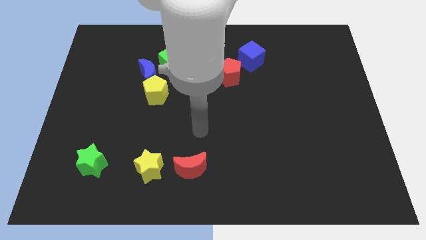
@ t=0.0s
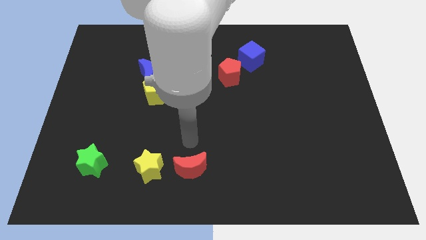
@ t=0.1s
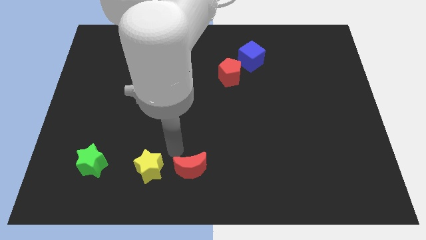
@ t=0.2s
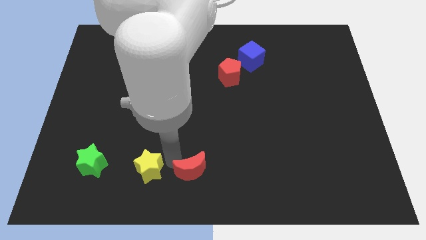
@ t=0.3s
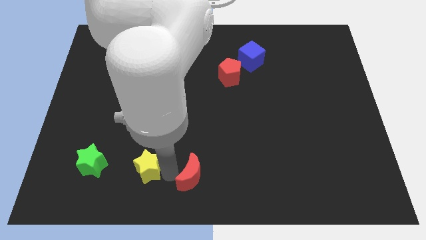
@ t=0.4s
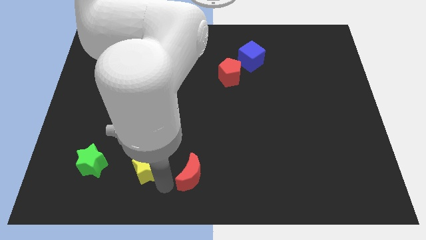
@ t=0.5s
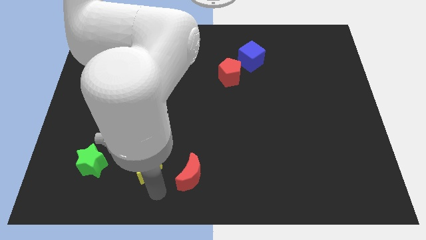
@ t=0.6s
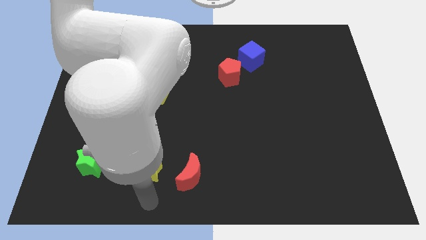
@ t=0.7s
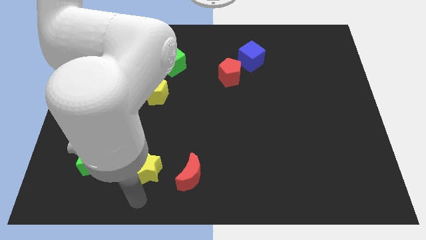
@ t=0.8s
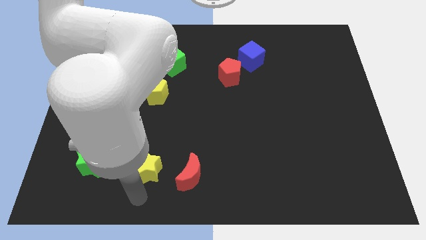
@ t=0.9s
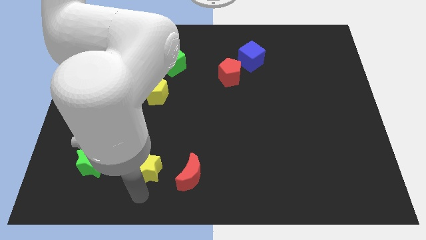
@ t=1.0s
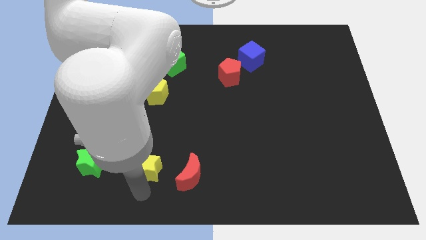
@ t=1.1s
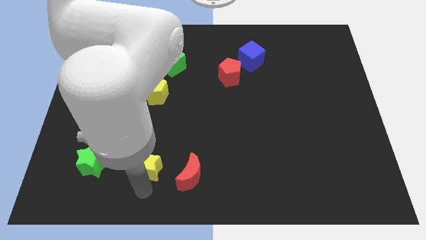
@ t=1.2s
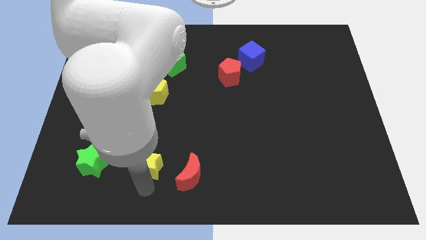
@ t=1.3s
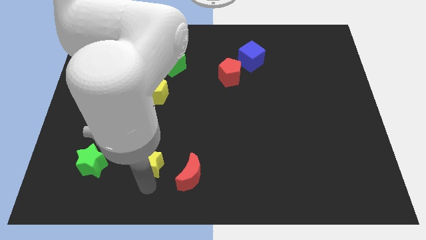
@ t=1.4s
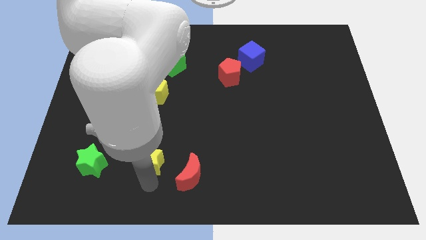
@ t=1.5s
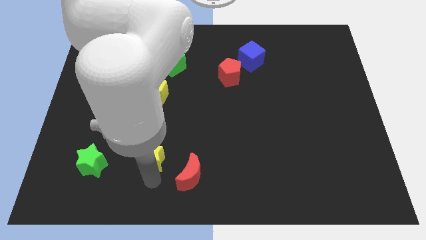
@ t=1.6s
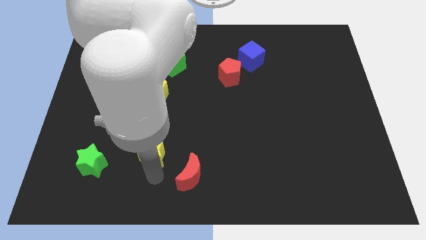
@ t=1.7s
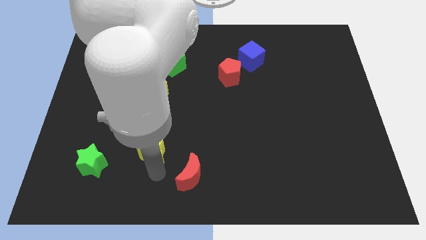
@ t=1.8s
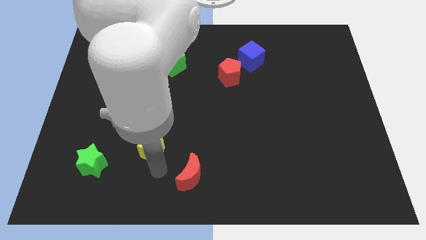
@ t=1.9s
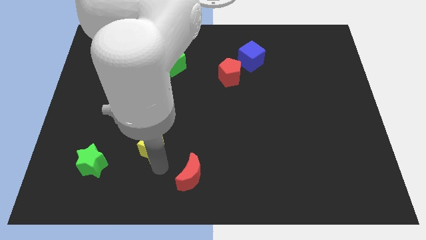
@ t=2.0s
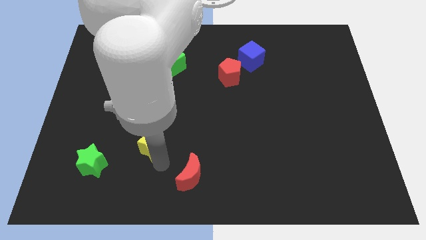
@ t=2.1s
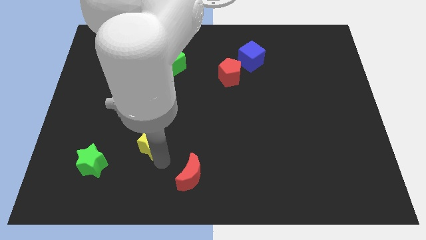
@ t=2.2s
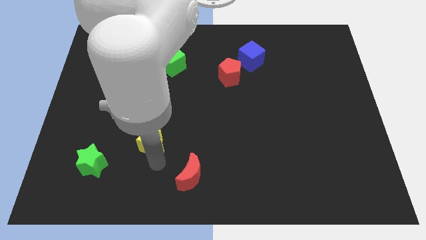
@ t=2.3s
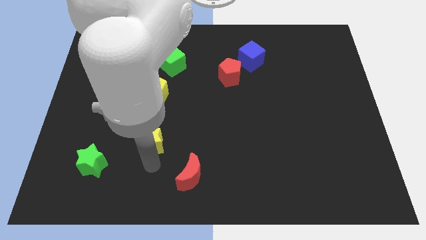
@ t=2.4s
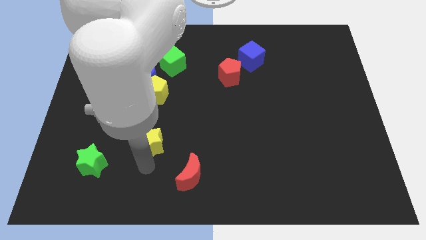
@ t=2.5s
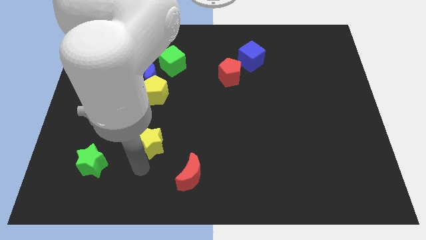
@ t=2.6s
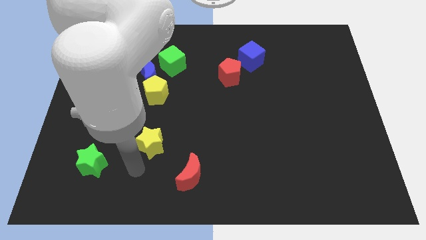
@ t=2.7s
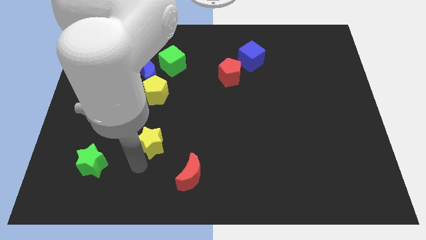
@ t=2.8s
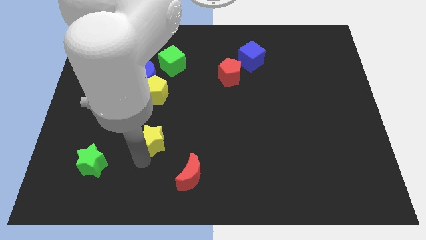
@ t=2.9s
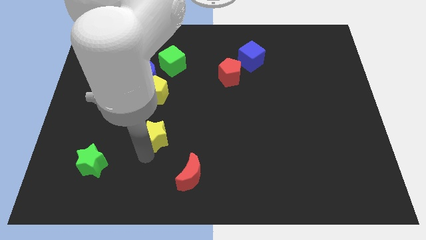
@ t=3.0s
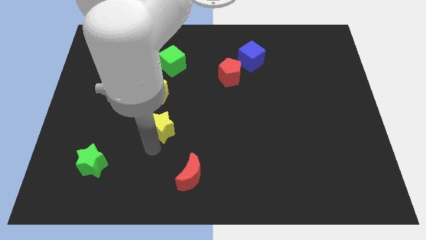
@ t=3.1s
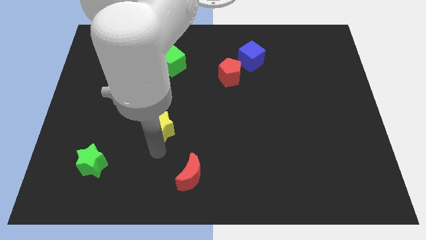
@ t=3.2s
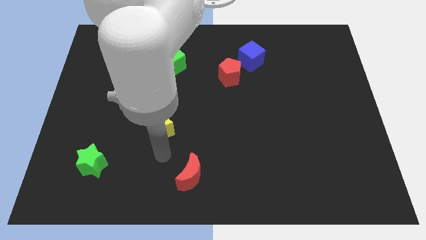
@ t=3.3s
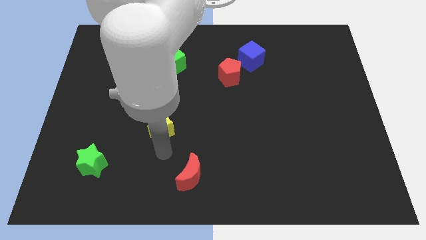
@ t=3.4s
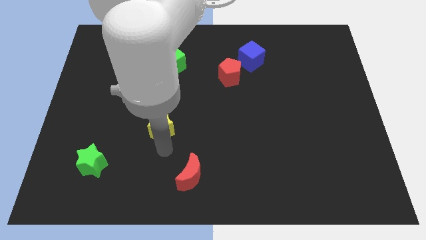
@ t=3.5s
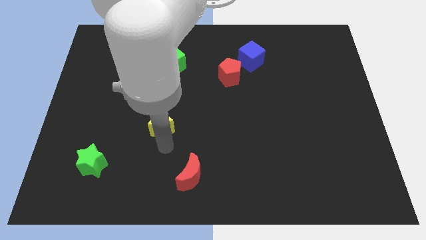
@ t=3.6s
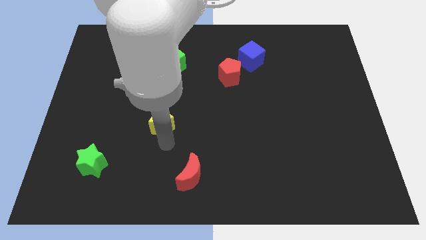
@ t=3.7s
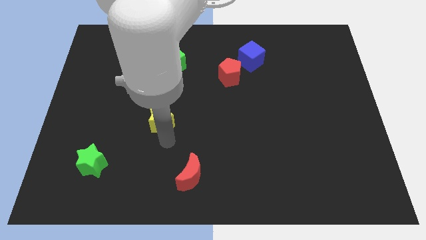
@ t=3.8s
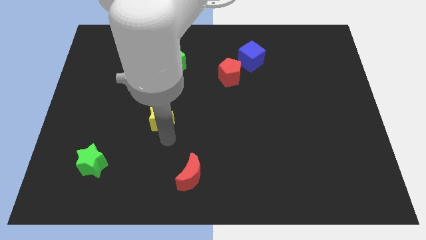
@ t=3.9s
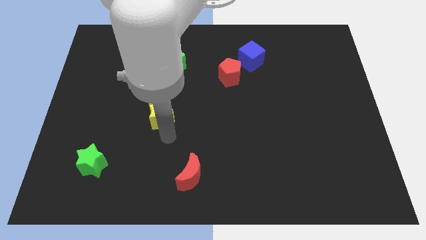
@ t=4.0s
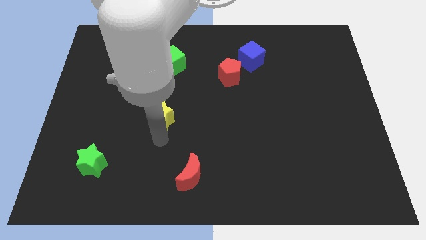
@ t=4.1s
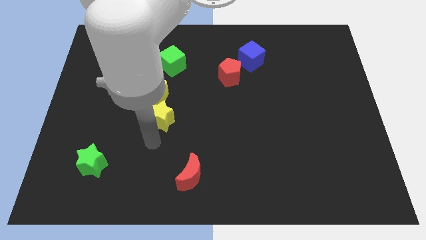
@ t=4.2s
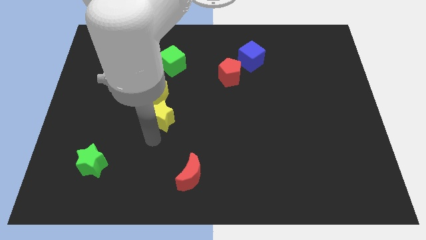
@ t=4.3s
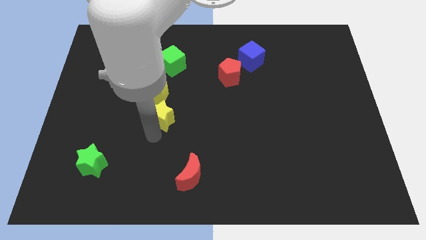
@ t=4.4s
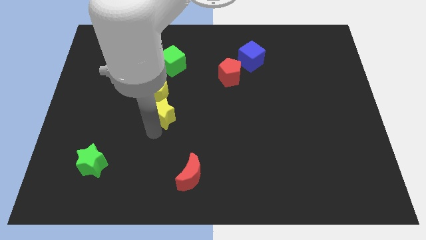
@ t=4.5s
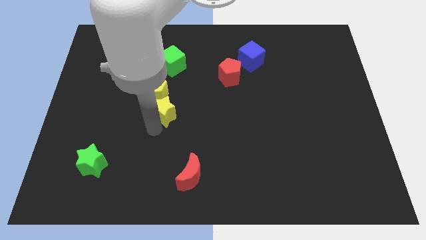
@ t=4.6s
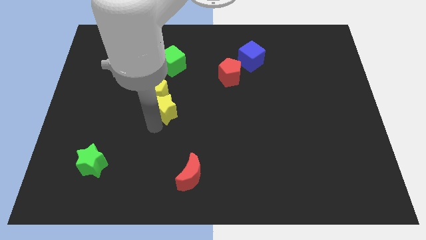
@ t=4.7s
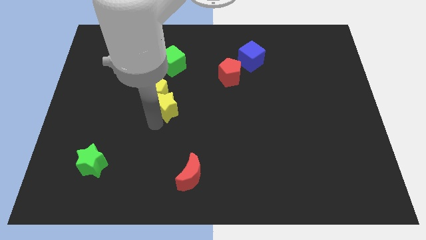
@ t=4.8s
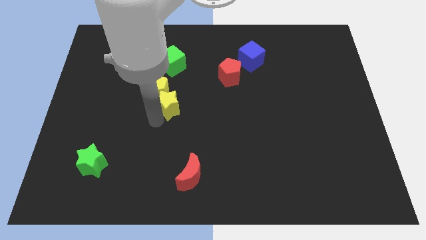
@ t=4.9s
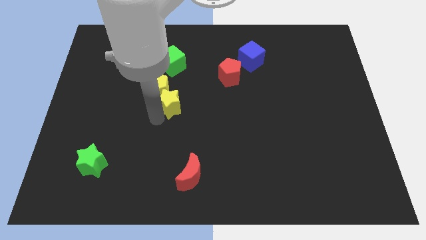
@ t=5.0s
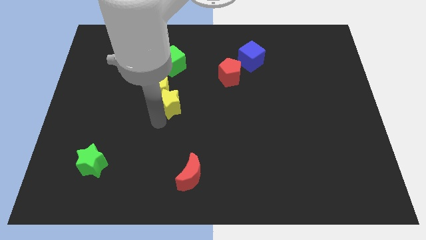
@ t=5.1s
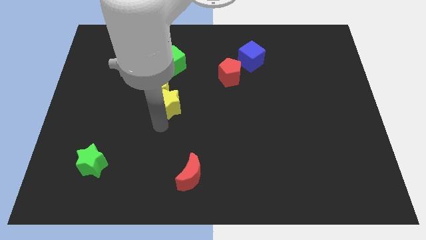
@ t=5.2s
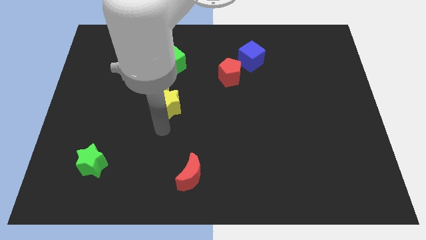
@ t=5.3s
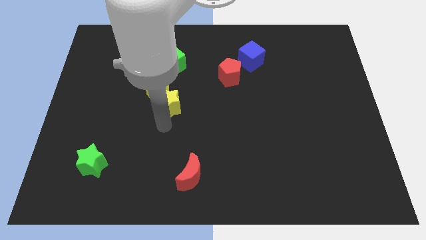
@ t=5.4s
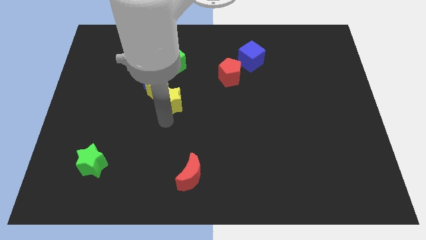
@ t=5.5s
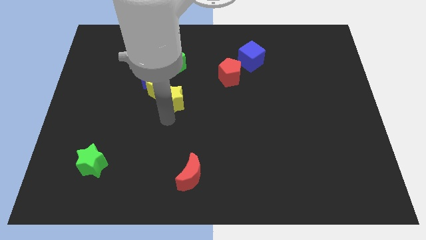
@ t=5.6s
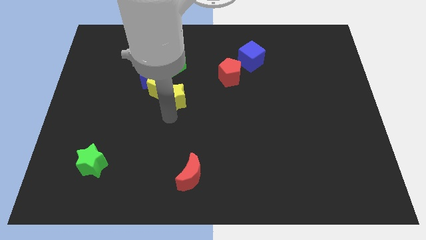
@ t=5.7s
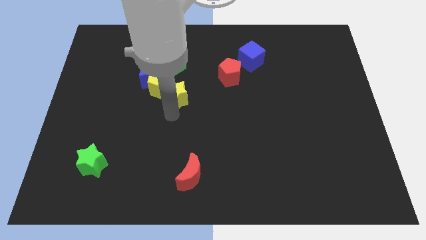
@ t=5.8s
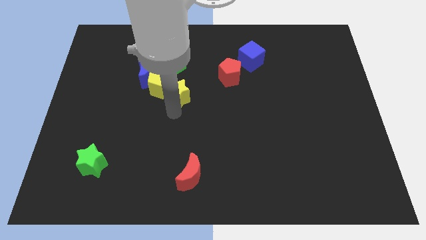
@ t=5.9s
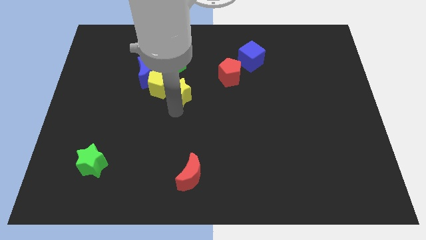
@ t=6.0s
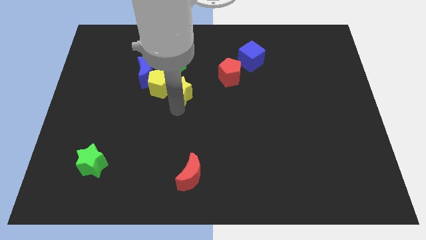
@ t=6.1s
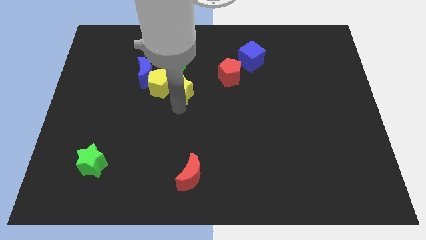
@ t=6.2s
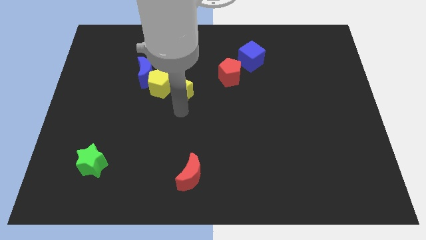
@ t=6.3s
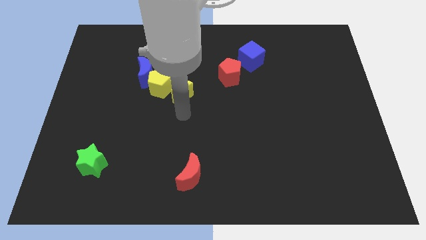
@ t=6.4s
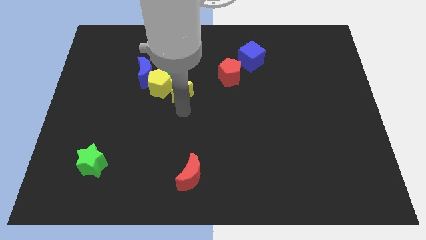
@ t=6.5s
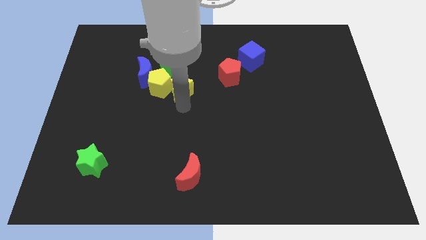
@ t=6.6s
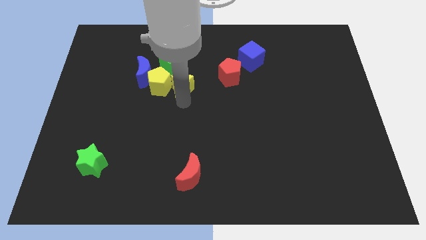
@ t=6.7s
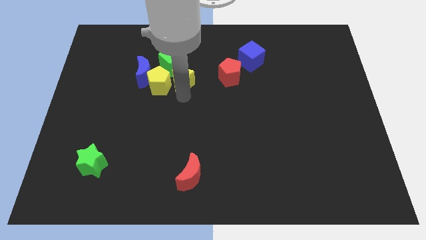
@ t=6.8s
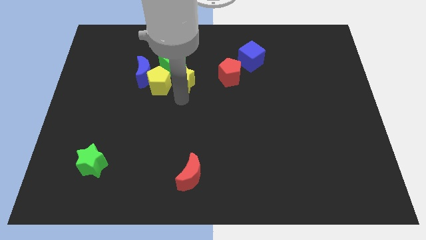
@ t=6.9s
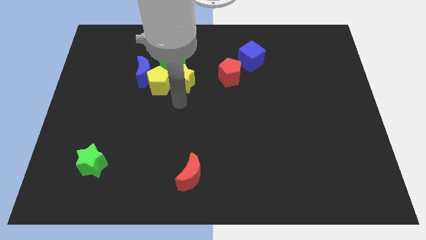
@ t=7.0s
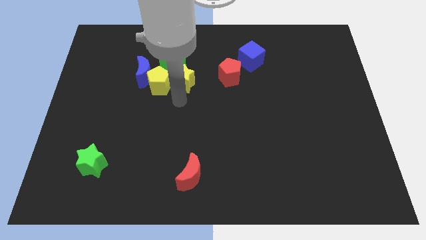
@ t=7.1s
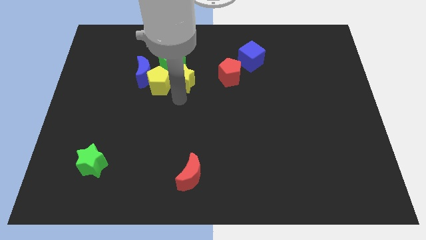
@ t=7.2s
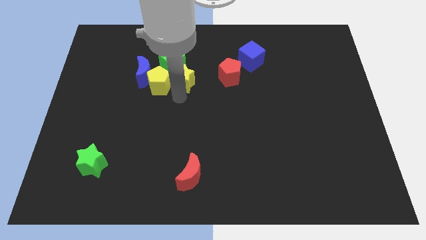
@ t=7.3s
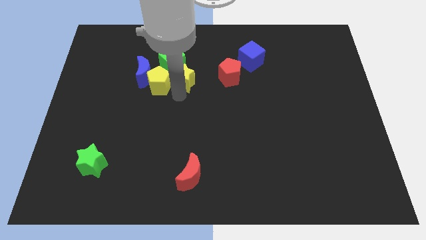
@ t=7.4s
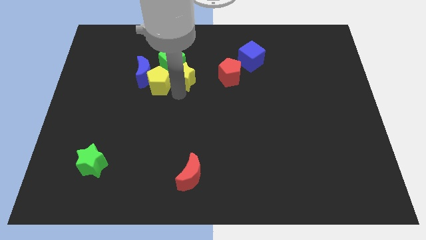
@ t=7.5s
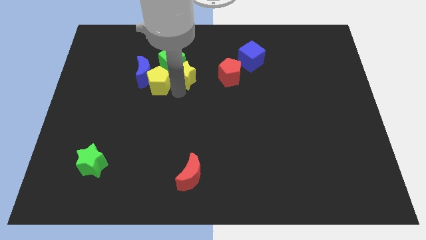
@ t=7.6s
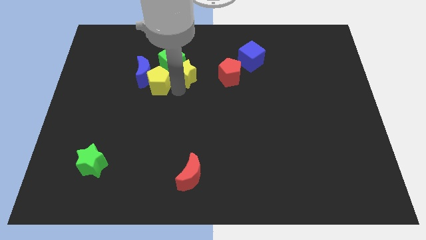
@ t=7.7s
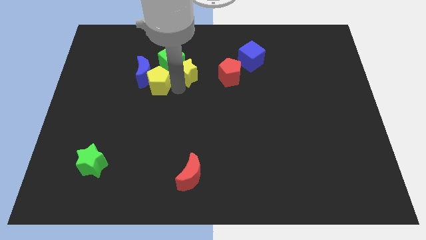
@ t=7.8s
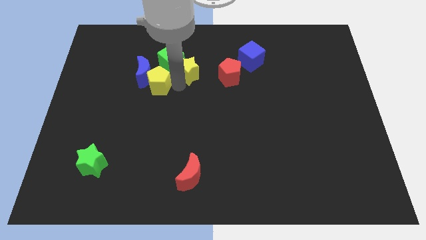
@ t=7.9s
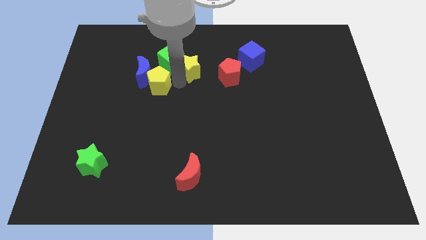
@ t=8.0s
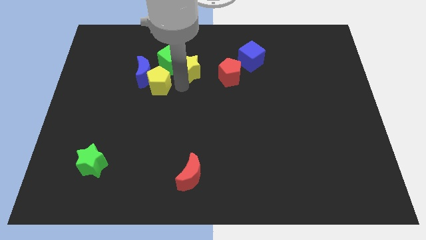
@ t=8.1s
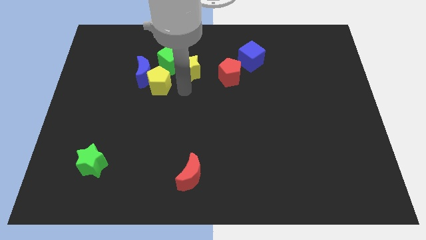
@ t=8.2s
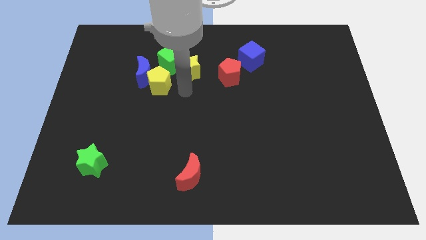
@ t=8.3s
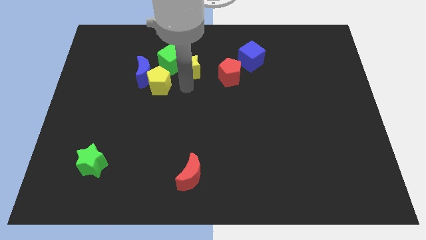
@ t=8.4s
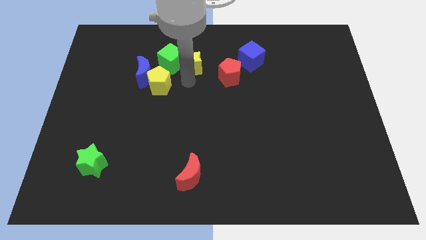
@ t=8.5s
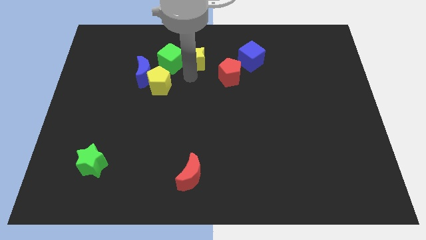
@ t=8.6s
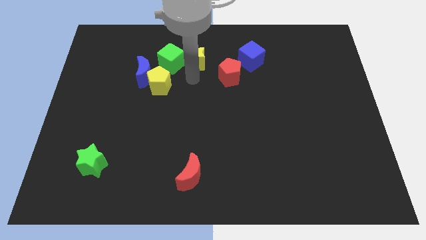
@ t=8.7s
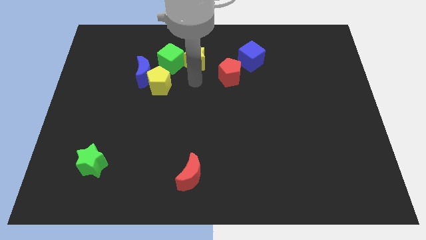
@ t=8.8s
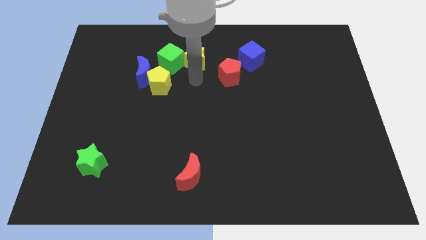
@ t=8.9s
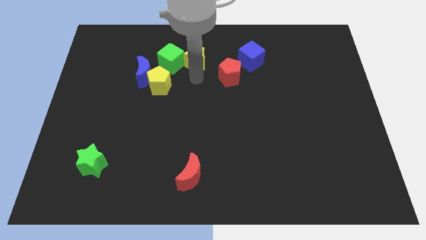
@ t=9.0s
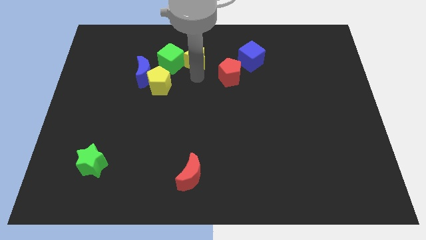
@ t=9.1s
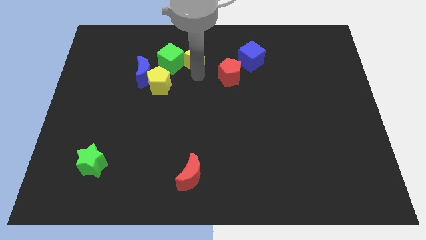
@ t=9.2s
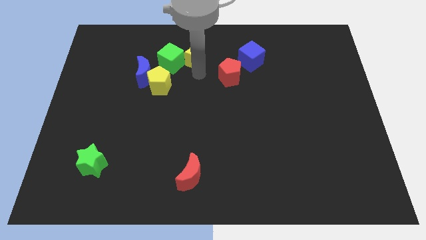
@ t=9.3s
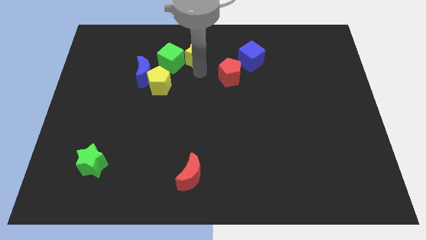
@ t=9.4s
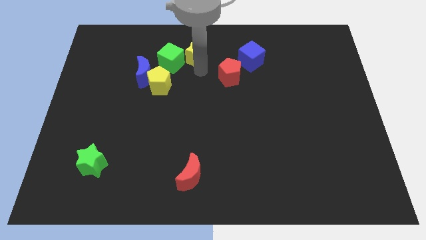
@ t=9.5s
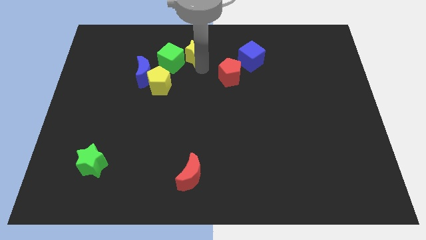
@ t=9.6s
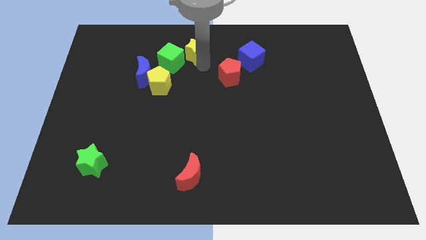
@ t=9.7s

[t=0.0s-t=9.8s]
put the yellow star to the towards your base
